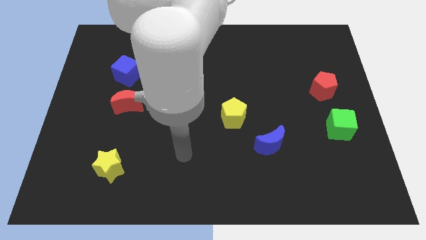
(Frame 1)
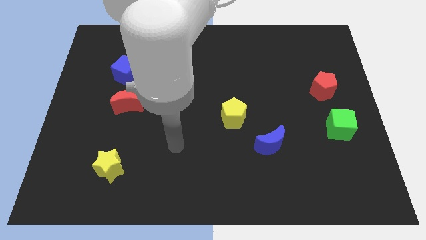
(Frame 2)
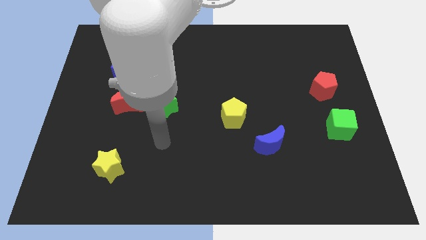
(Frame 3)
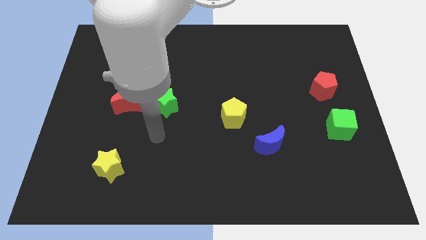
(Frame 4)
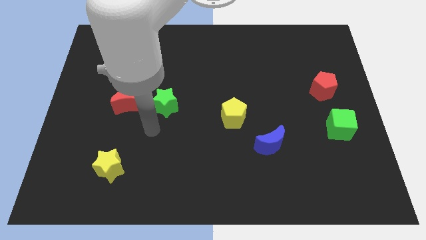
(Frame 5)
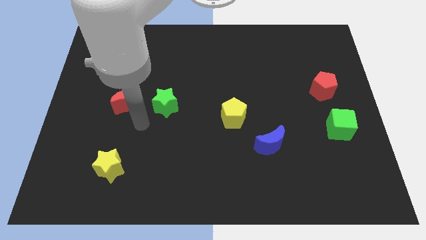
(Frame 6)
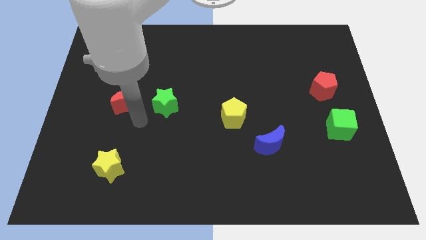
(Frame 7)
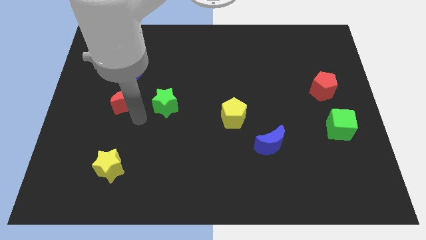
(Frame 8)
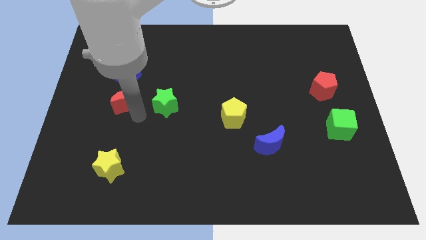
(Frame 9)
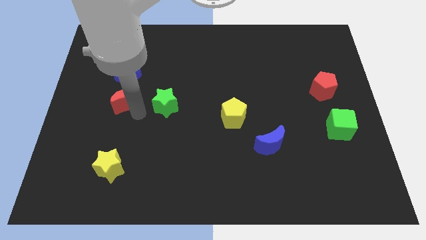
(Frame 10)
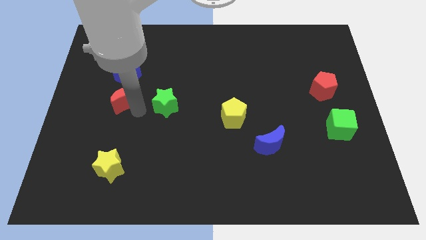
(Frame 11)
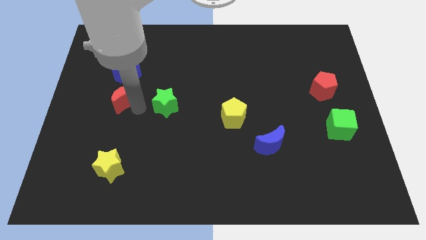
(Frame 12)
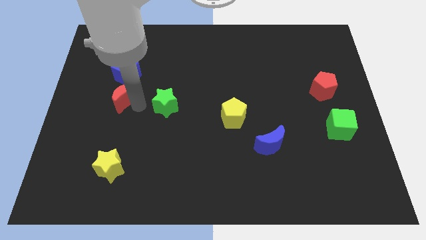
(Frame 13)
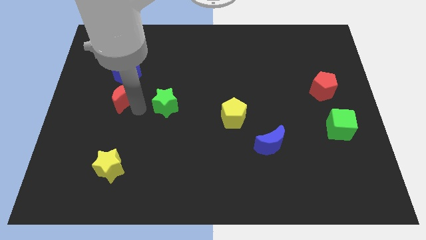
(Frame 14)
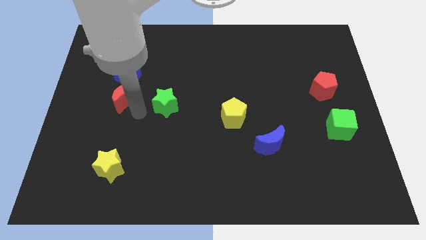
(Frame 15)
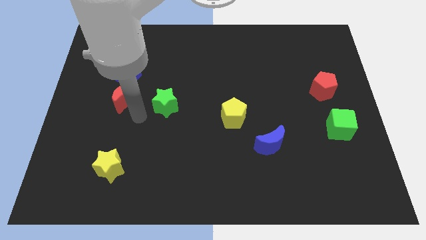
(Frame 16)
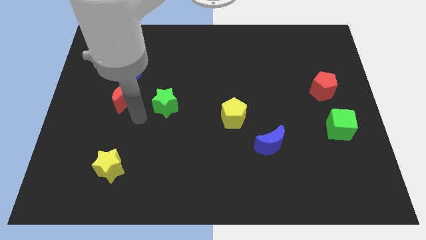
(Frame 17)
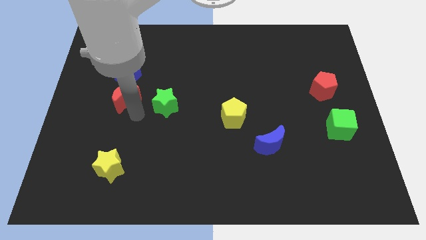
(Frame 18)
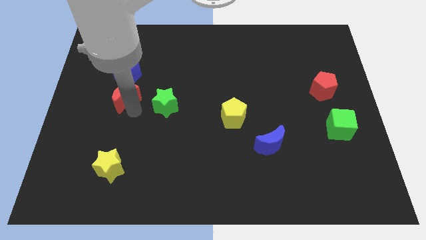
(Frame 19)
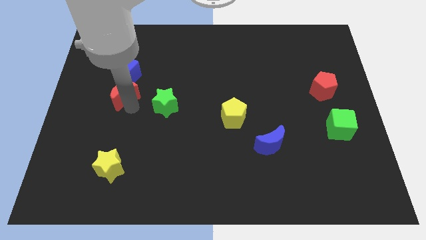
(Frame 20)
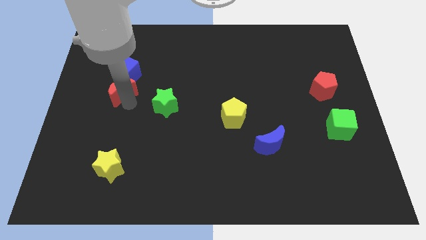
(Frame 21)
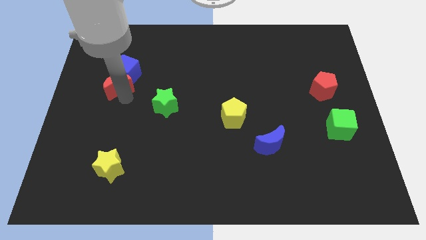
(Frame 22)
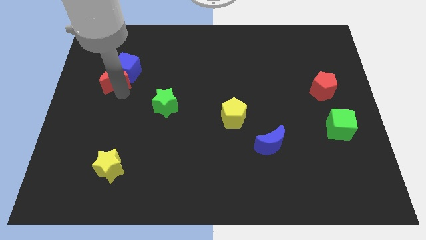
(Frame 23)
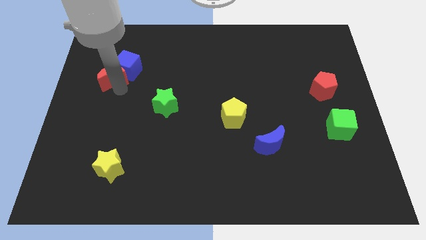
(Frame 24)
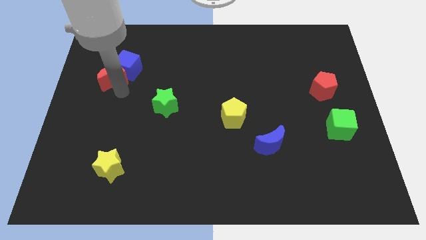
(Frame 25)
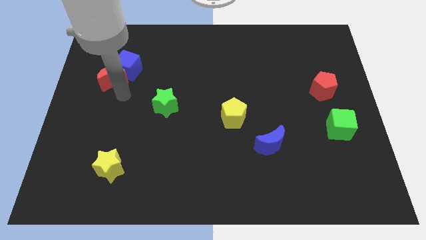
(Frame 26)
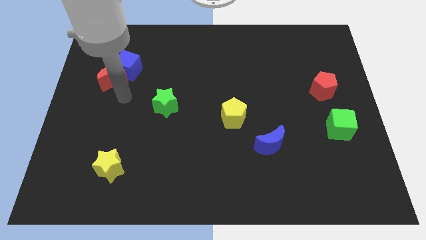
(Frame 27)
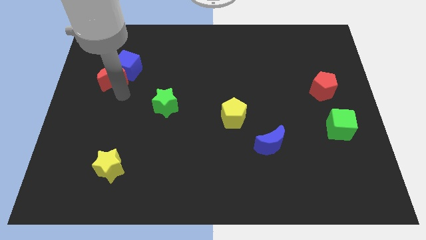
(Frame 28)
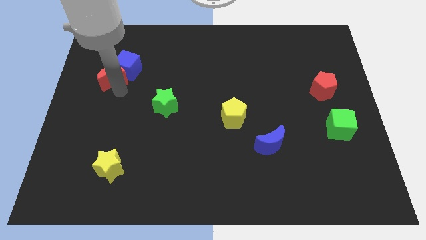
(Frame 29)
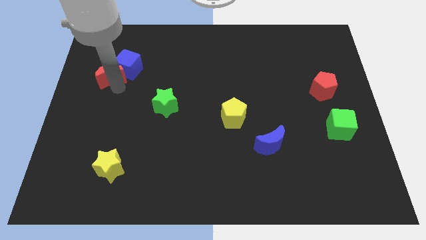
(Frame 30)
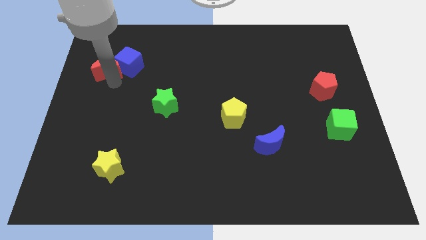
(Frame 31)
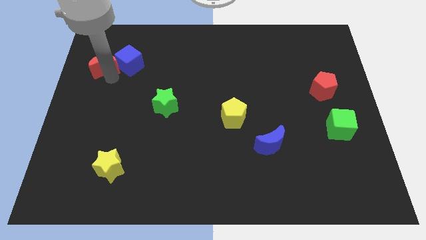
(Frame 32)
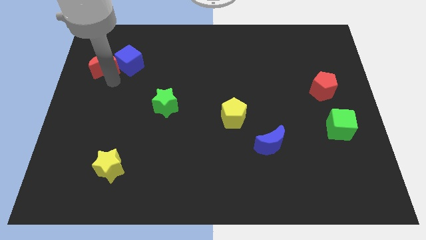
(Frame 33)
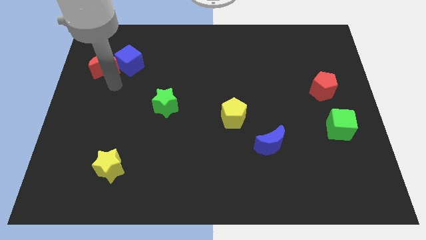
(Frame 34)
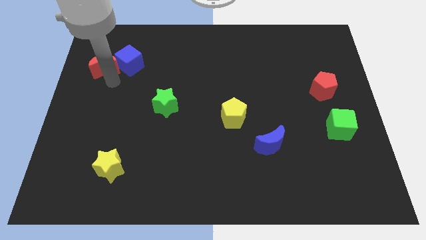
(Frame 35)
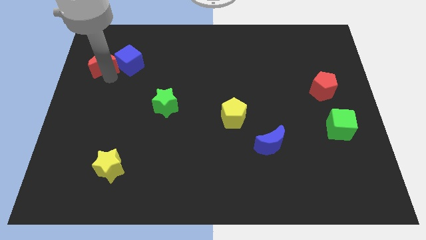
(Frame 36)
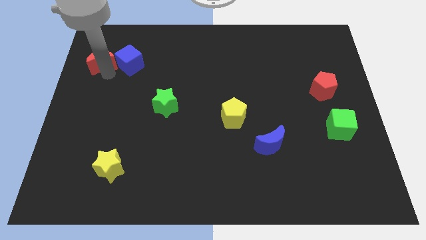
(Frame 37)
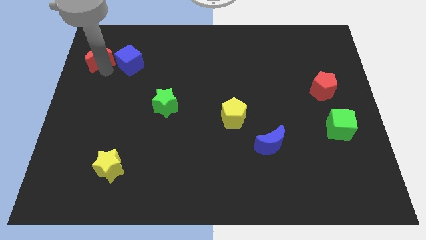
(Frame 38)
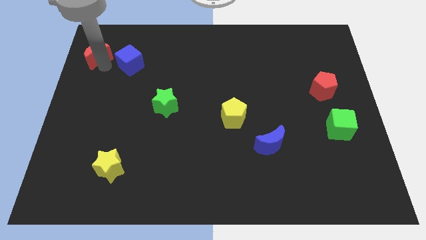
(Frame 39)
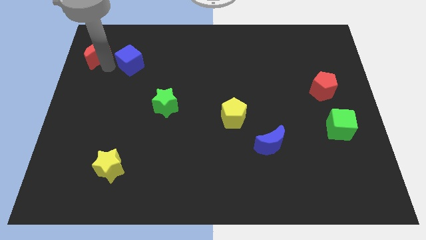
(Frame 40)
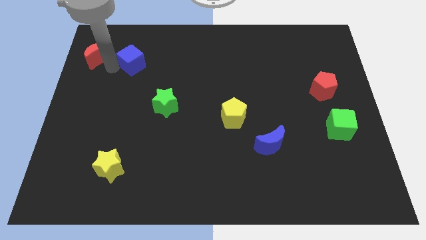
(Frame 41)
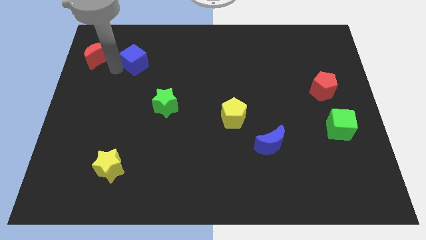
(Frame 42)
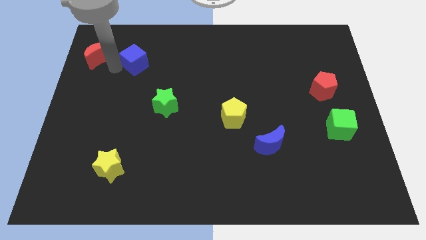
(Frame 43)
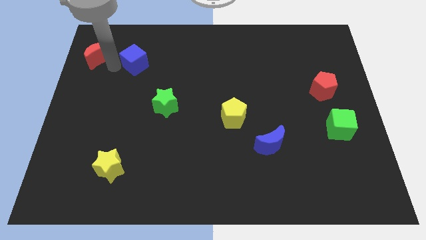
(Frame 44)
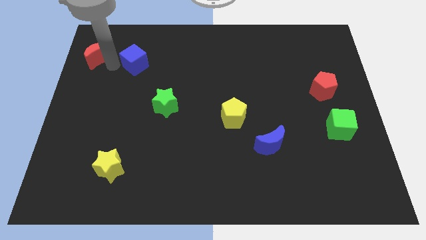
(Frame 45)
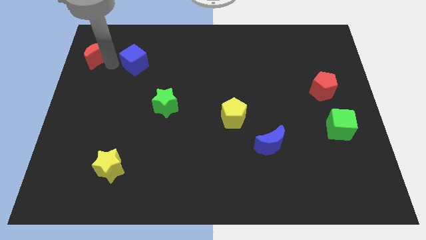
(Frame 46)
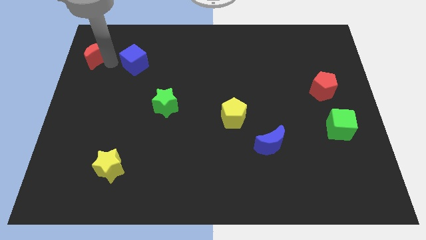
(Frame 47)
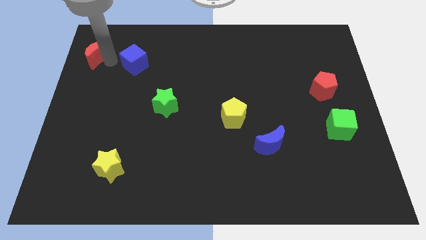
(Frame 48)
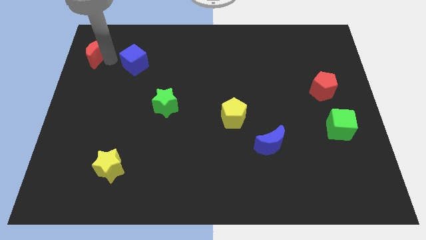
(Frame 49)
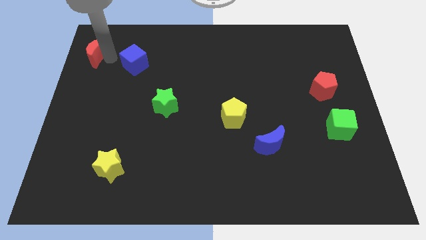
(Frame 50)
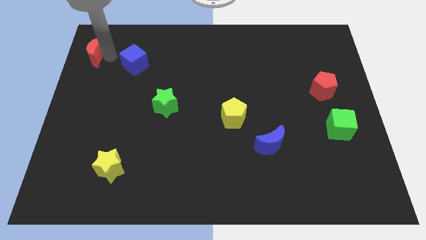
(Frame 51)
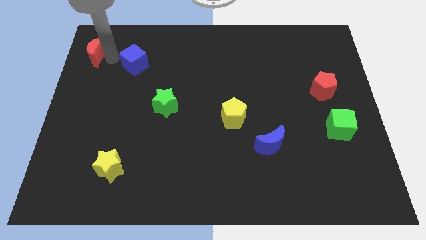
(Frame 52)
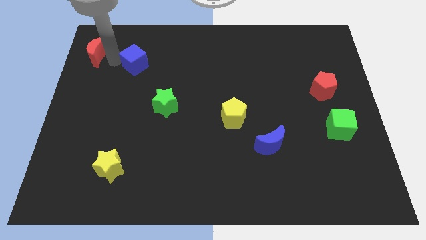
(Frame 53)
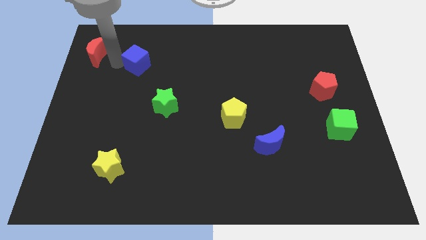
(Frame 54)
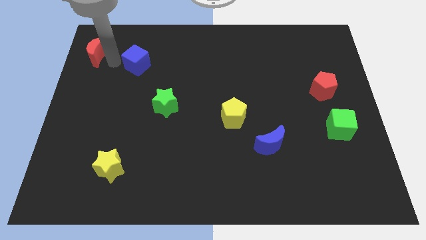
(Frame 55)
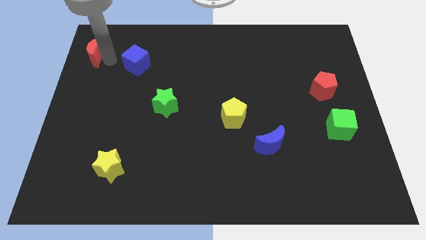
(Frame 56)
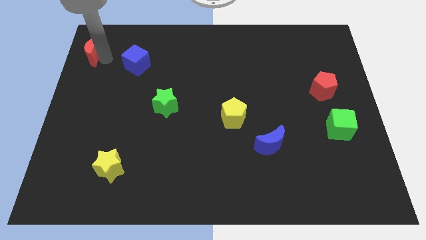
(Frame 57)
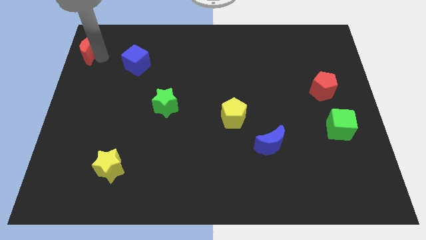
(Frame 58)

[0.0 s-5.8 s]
slide the red moon to the top left corner

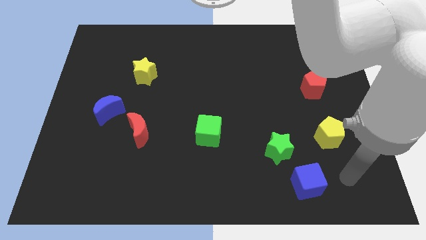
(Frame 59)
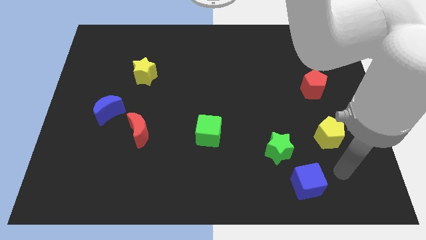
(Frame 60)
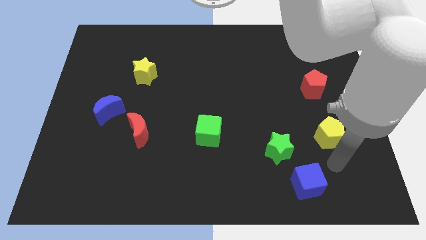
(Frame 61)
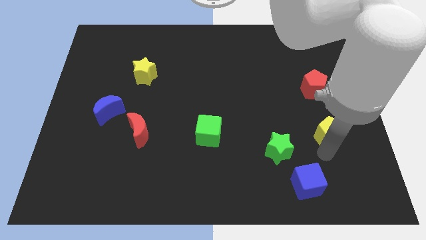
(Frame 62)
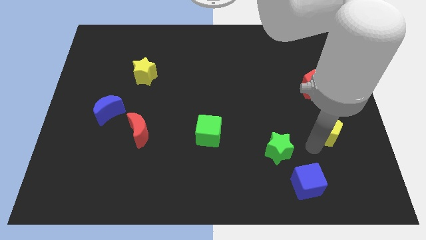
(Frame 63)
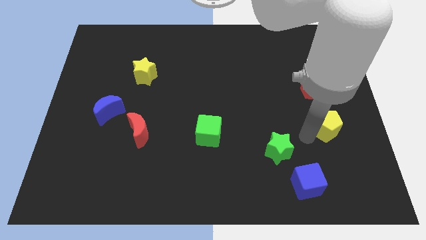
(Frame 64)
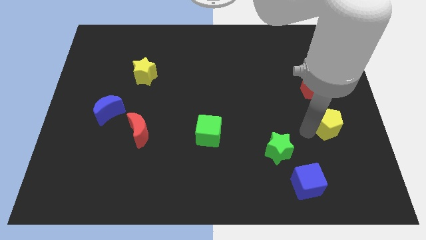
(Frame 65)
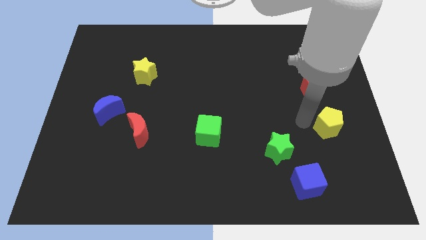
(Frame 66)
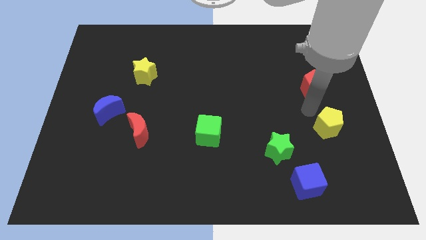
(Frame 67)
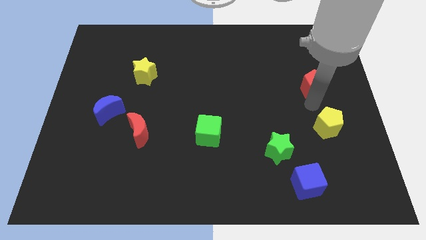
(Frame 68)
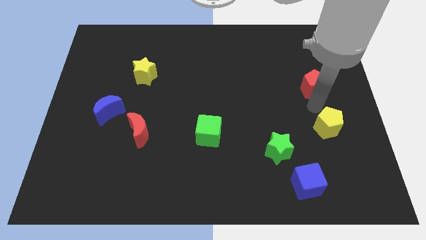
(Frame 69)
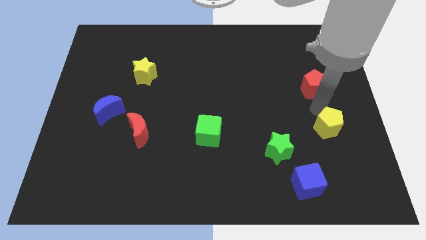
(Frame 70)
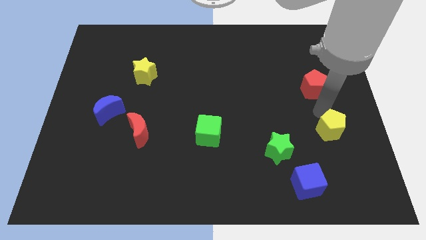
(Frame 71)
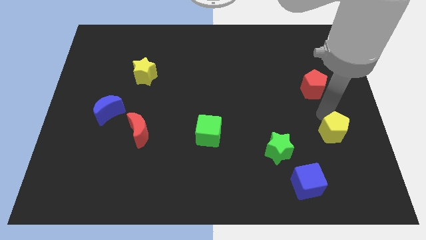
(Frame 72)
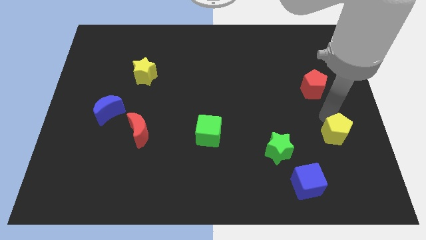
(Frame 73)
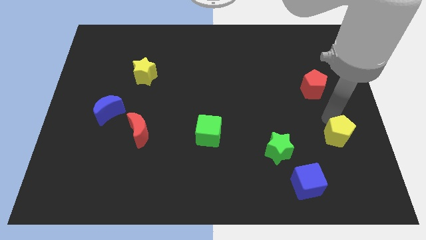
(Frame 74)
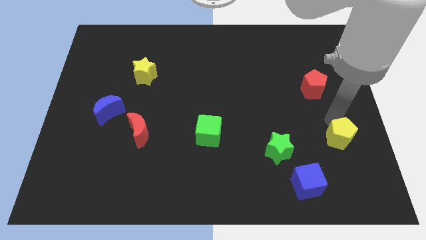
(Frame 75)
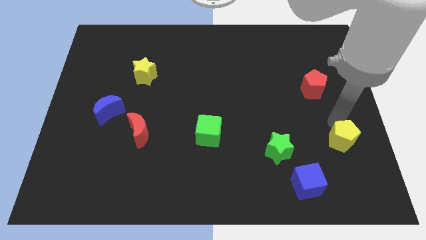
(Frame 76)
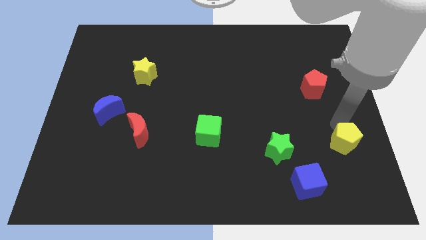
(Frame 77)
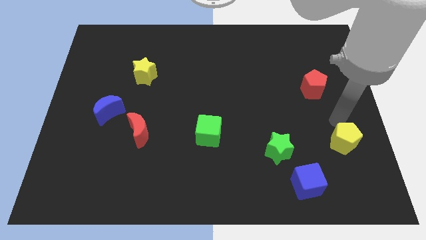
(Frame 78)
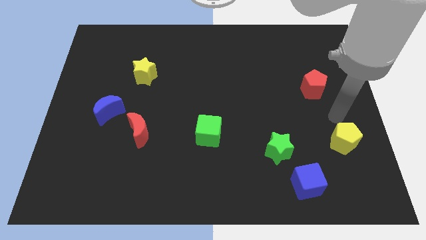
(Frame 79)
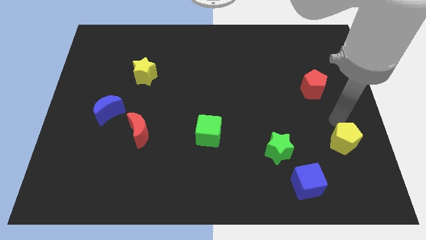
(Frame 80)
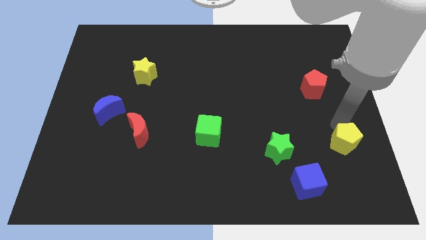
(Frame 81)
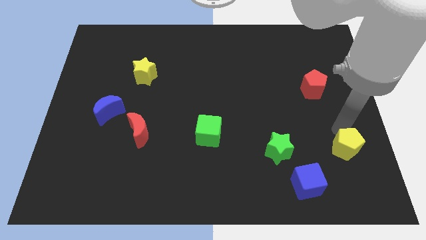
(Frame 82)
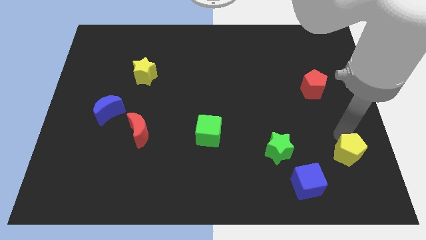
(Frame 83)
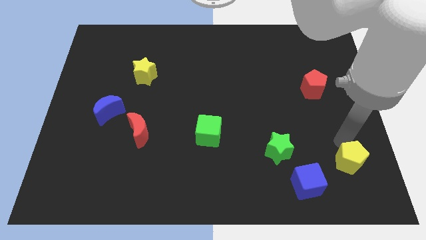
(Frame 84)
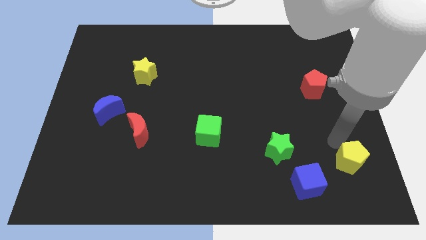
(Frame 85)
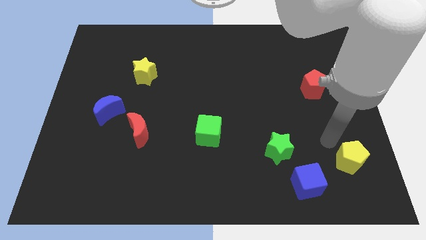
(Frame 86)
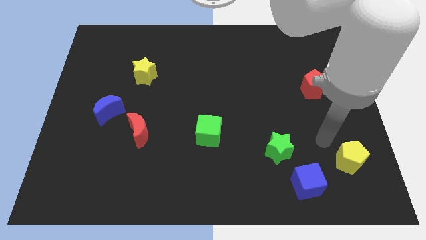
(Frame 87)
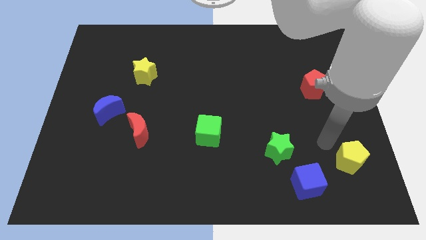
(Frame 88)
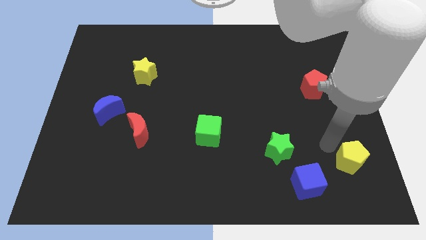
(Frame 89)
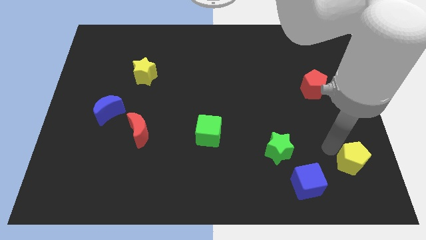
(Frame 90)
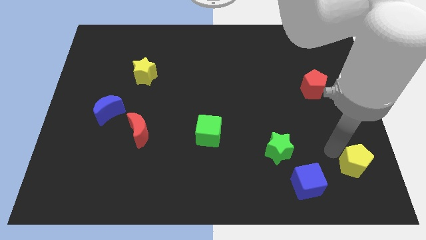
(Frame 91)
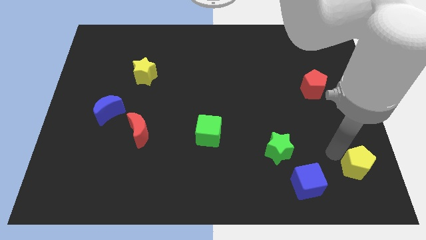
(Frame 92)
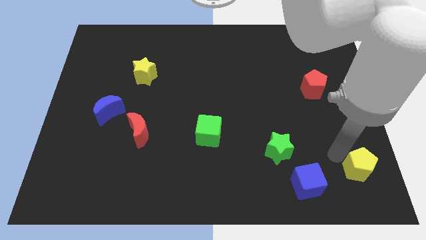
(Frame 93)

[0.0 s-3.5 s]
push the yellow pentagon to the bottom right
